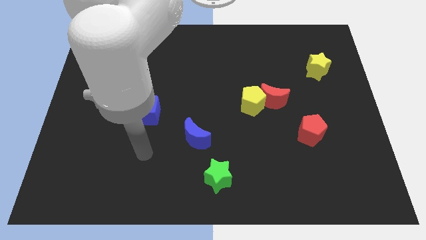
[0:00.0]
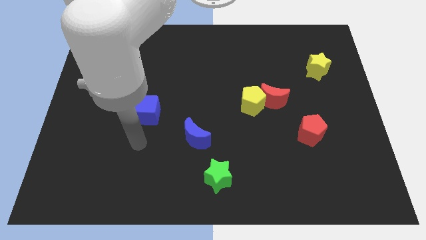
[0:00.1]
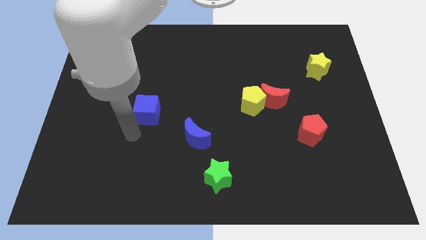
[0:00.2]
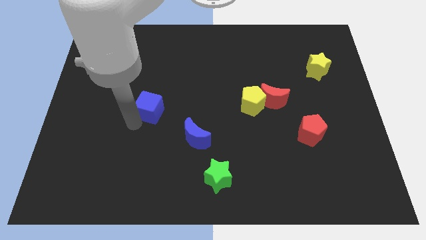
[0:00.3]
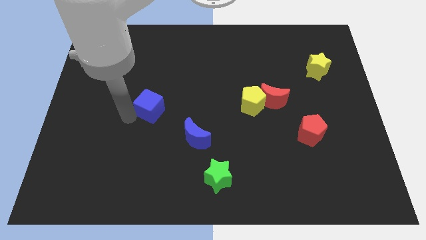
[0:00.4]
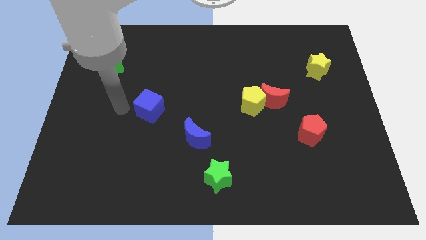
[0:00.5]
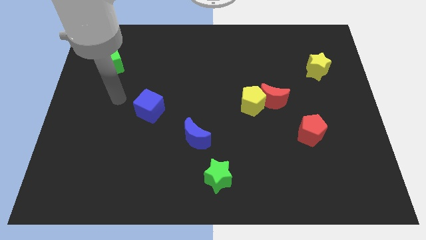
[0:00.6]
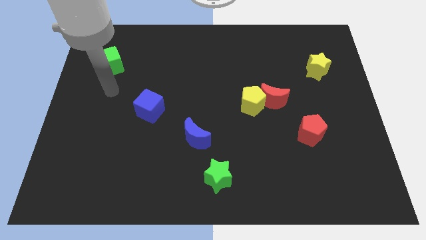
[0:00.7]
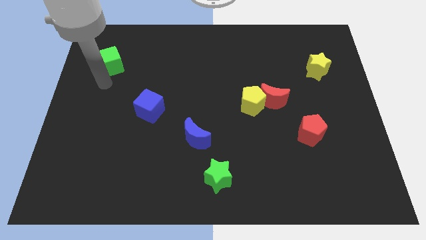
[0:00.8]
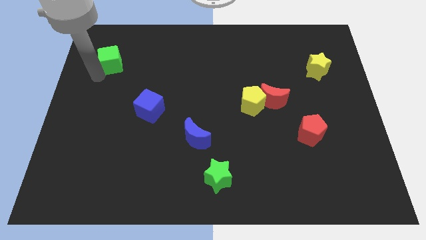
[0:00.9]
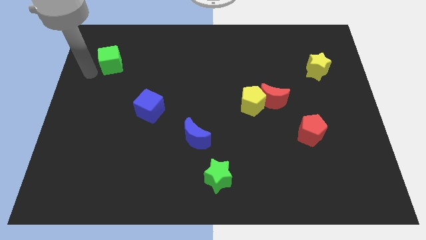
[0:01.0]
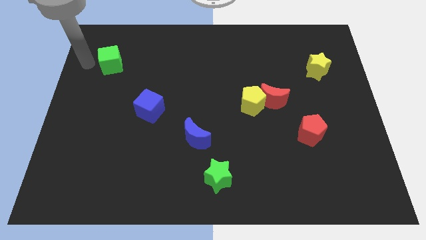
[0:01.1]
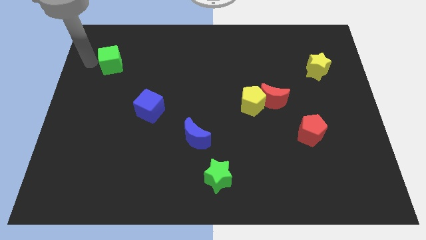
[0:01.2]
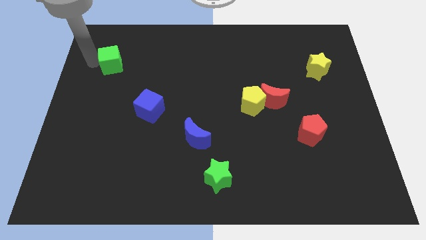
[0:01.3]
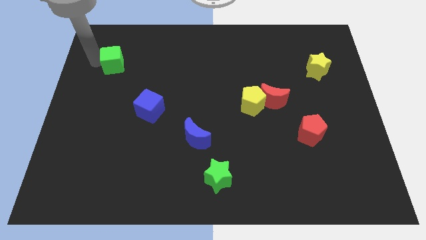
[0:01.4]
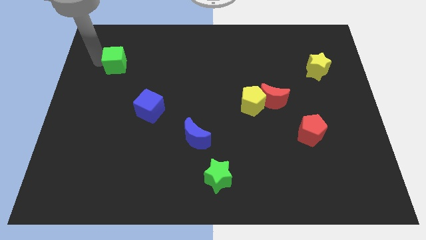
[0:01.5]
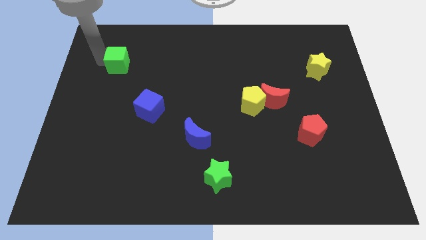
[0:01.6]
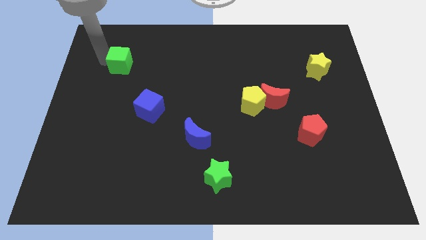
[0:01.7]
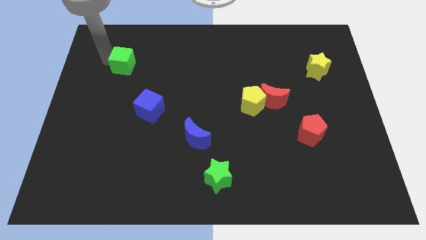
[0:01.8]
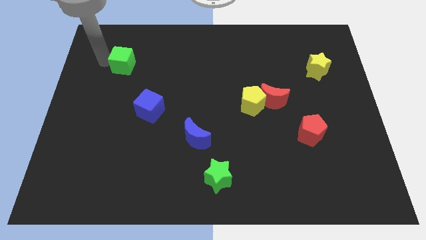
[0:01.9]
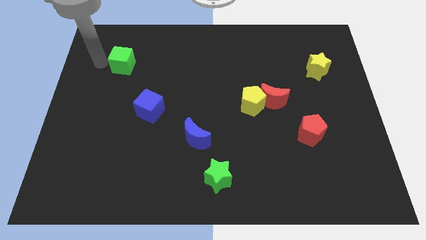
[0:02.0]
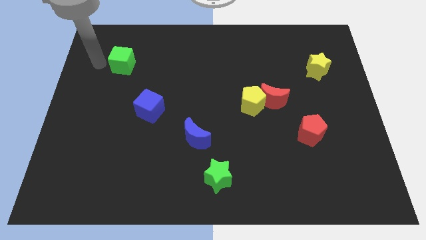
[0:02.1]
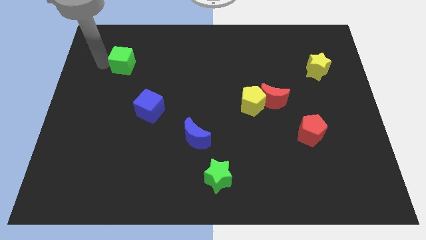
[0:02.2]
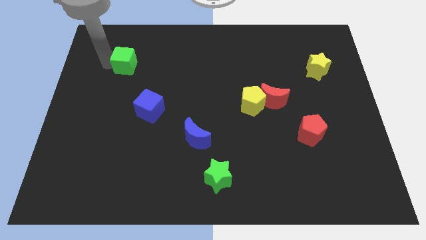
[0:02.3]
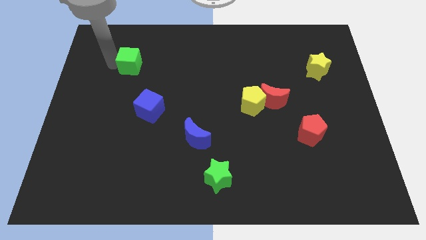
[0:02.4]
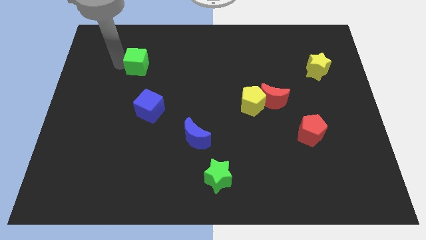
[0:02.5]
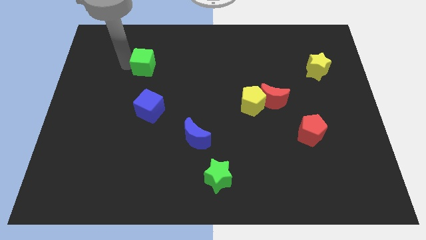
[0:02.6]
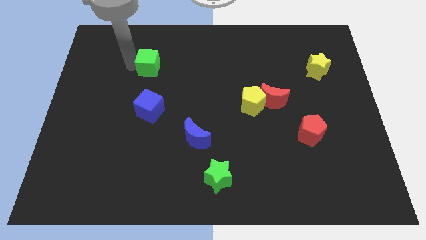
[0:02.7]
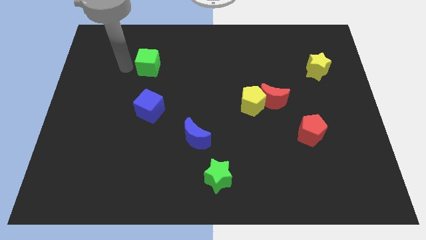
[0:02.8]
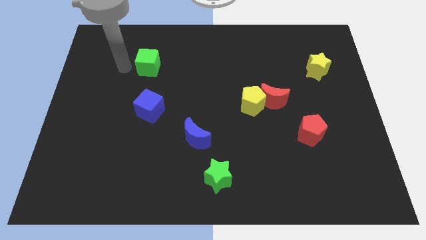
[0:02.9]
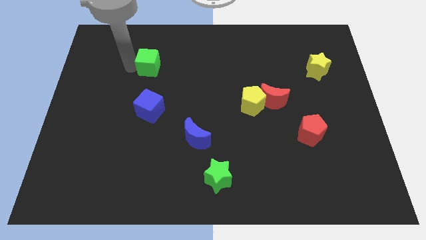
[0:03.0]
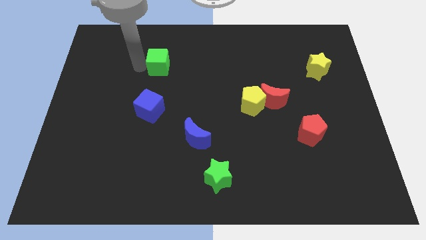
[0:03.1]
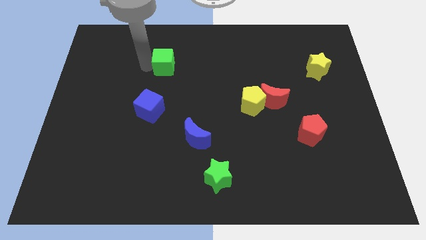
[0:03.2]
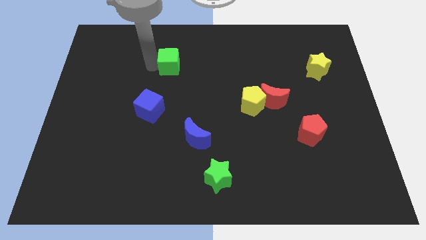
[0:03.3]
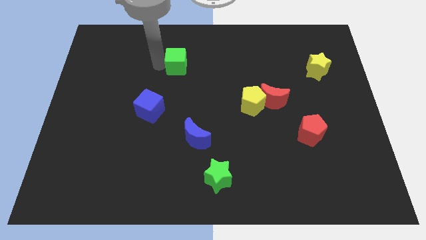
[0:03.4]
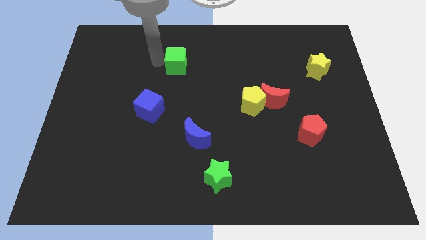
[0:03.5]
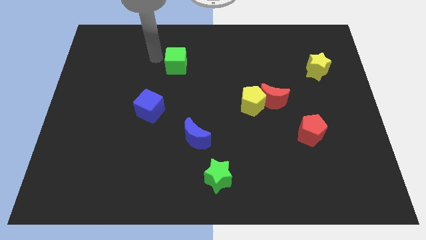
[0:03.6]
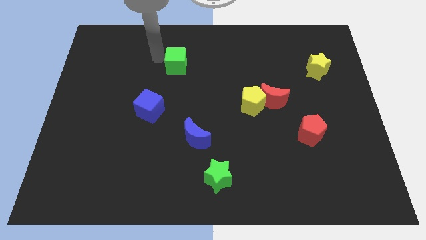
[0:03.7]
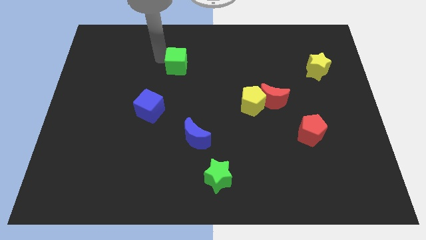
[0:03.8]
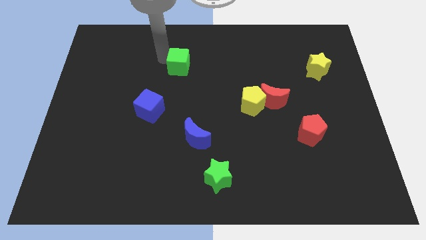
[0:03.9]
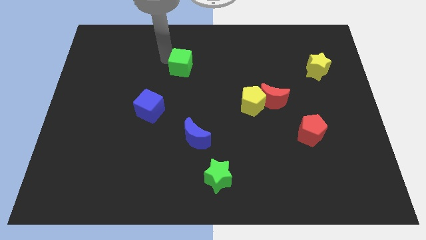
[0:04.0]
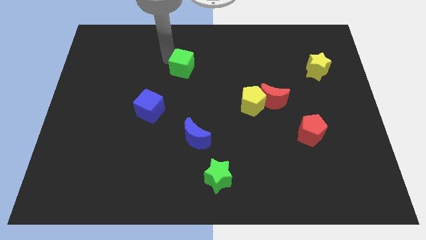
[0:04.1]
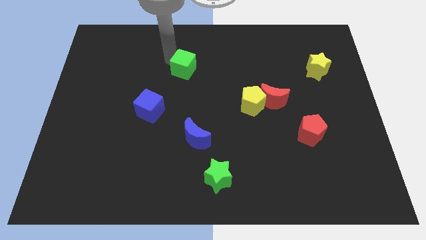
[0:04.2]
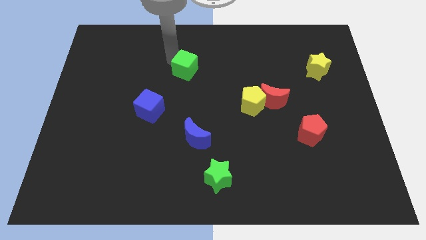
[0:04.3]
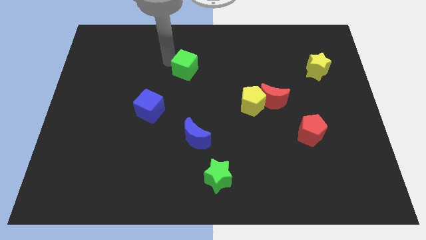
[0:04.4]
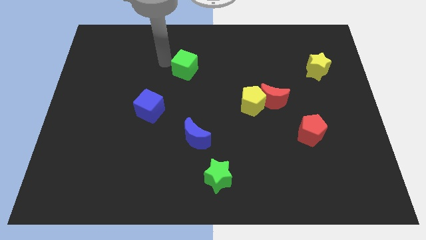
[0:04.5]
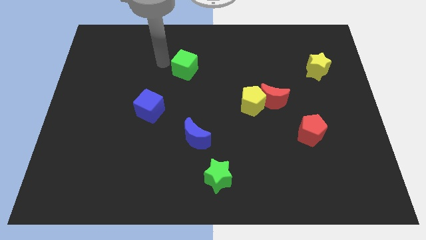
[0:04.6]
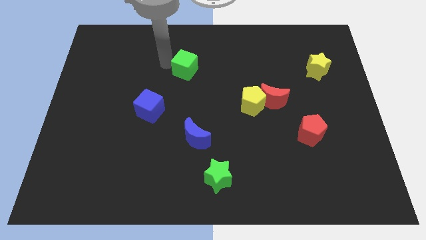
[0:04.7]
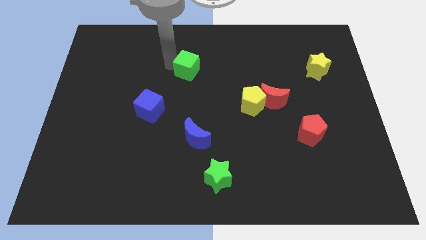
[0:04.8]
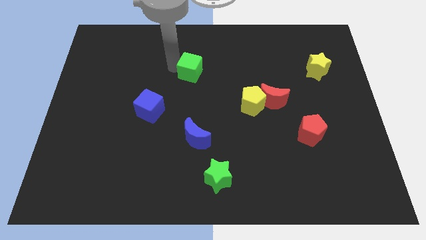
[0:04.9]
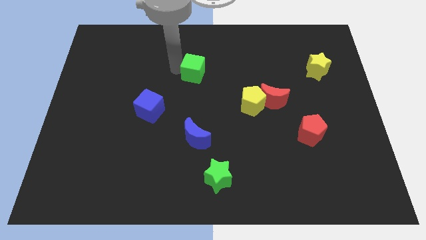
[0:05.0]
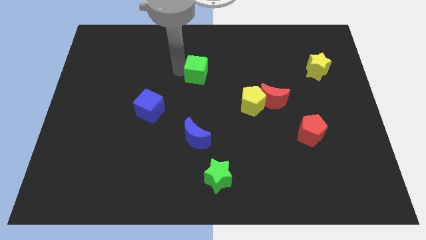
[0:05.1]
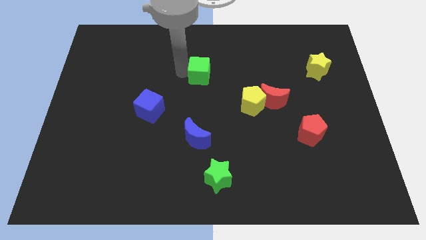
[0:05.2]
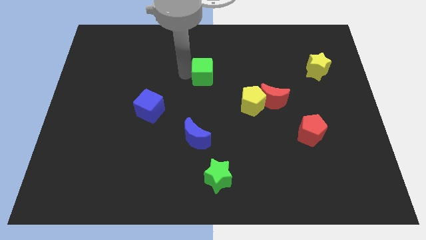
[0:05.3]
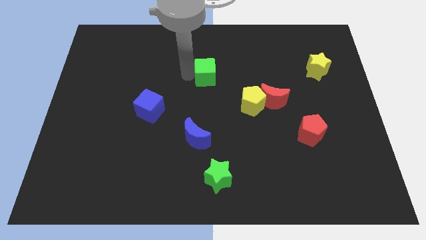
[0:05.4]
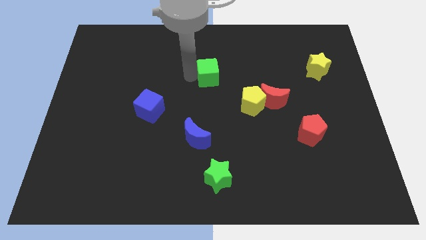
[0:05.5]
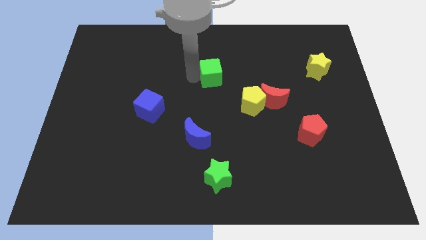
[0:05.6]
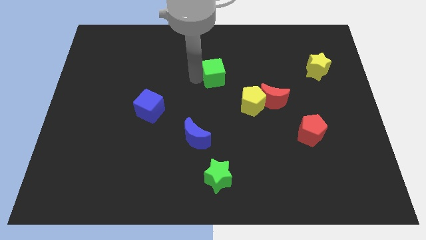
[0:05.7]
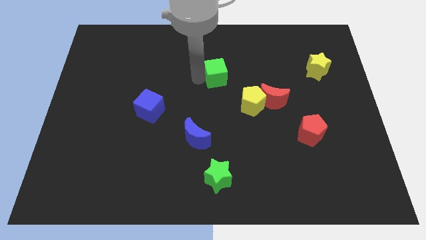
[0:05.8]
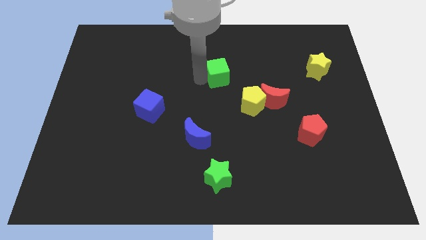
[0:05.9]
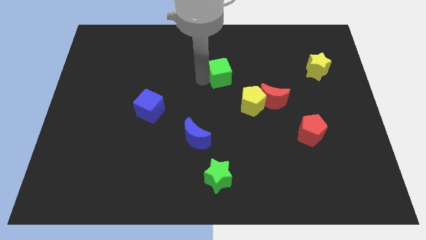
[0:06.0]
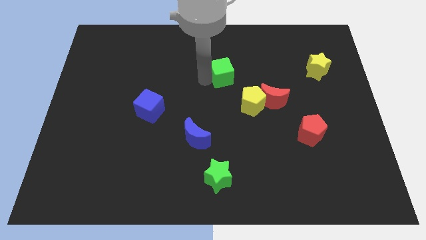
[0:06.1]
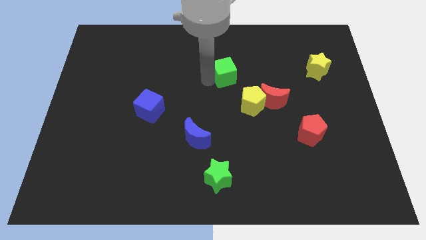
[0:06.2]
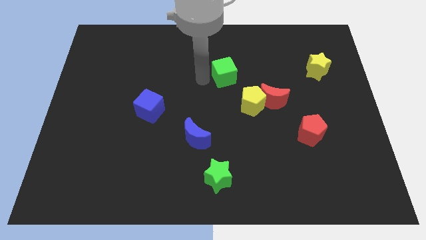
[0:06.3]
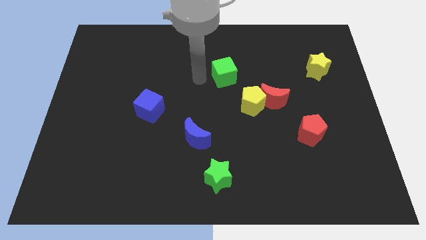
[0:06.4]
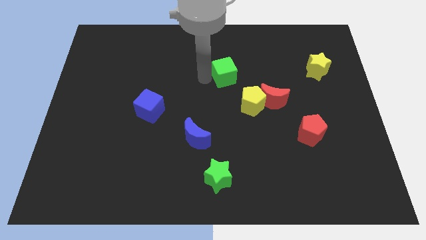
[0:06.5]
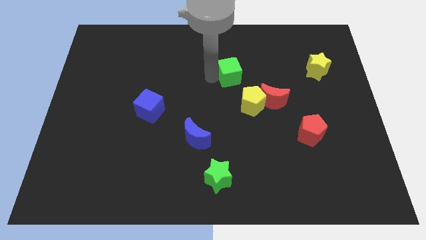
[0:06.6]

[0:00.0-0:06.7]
slide the green cube to the top side of the yellow pentagon

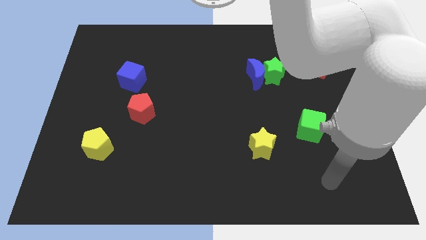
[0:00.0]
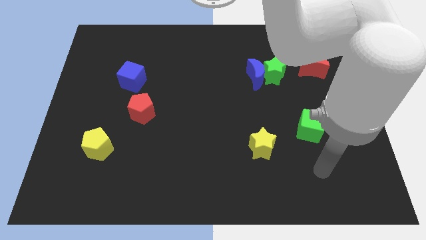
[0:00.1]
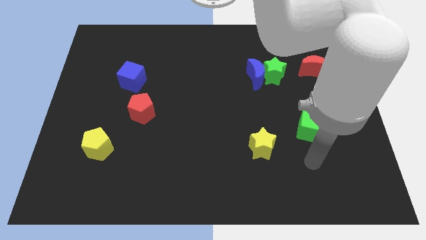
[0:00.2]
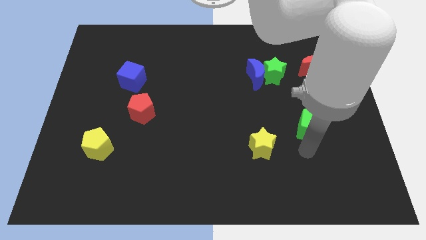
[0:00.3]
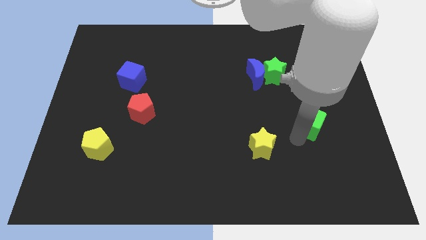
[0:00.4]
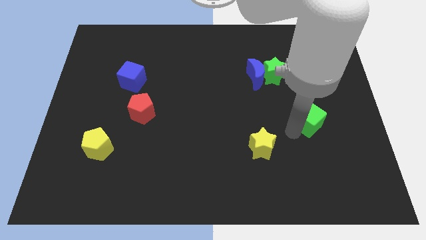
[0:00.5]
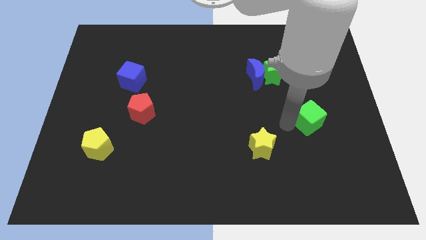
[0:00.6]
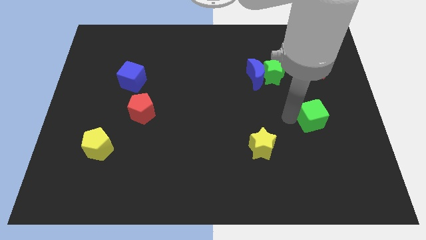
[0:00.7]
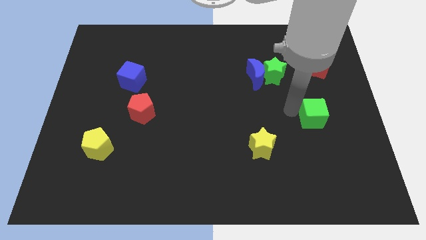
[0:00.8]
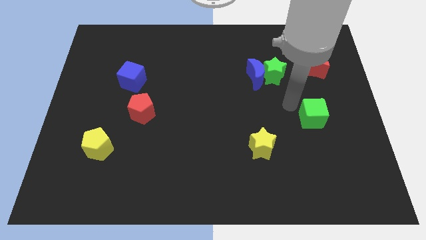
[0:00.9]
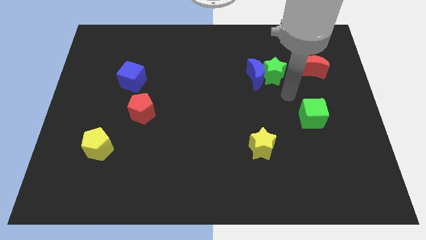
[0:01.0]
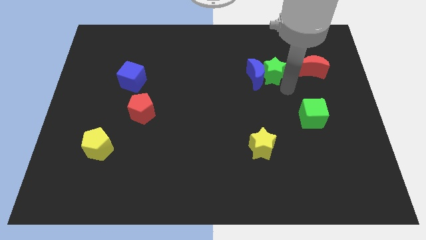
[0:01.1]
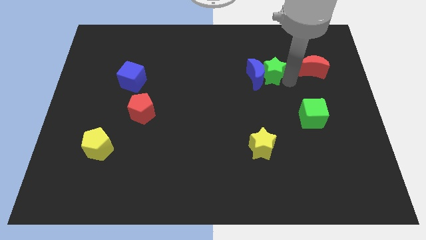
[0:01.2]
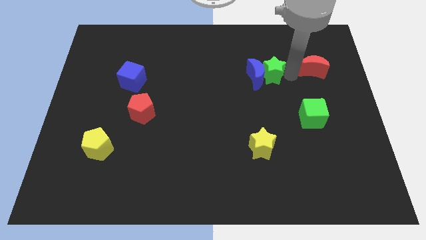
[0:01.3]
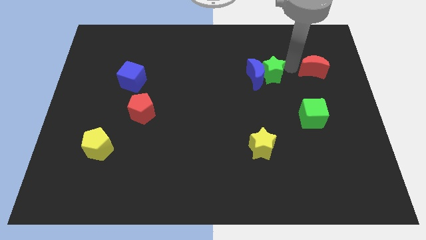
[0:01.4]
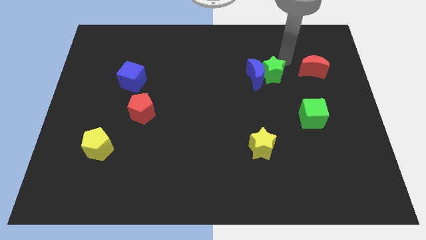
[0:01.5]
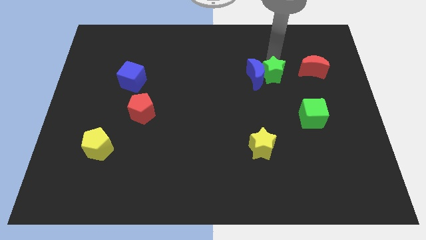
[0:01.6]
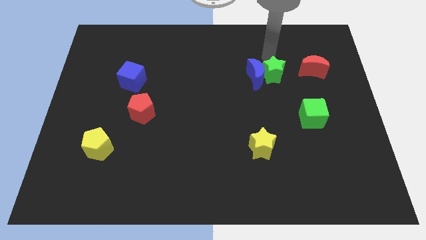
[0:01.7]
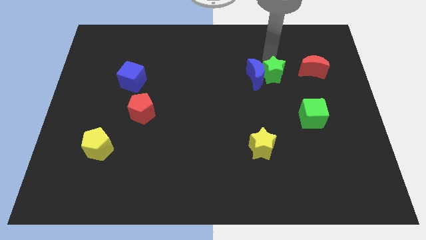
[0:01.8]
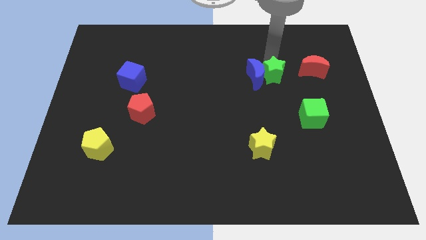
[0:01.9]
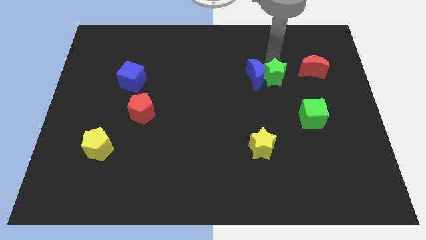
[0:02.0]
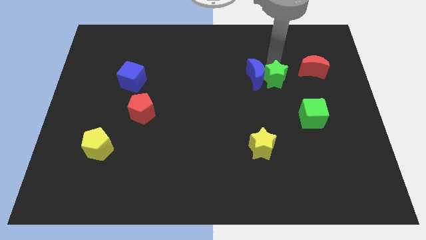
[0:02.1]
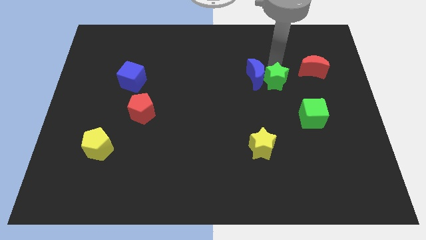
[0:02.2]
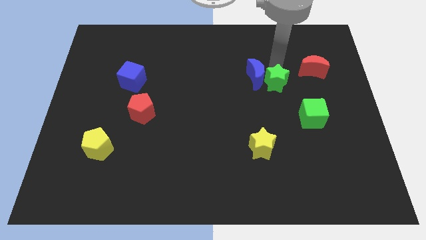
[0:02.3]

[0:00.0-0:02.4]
put the green star to the top left side of the green cube
